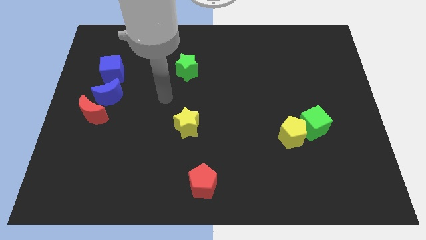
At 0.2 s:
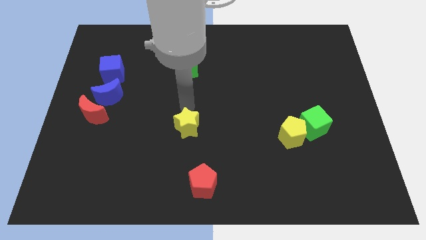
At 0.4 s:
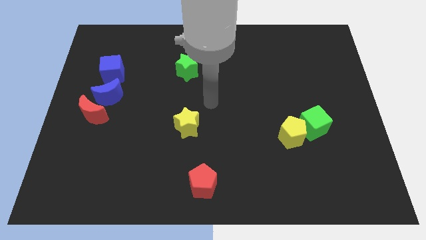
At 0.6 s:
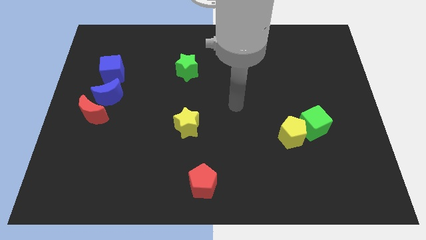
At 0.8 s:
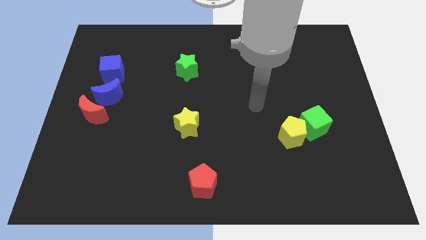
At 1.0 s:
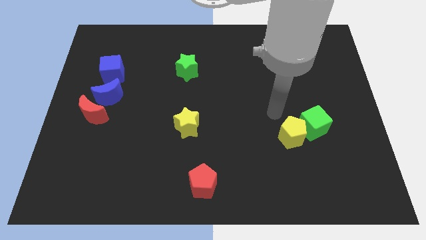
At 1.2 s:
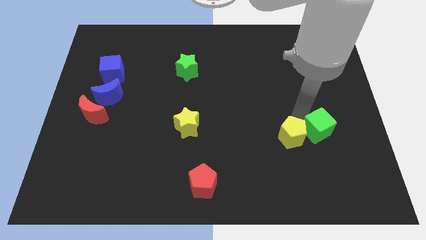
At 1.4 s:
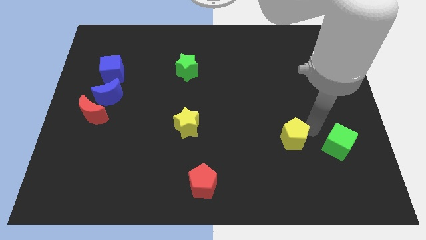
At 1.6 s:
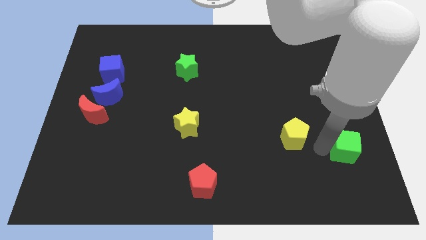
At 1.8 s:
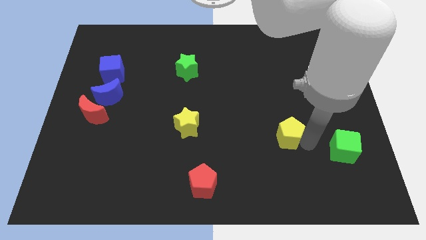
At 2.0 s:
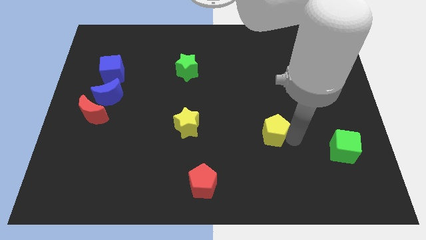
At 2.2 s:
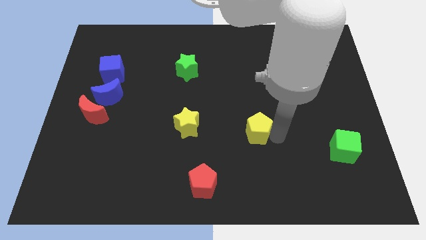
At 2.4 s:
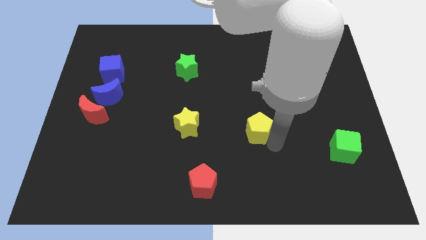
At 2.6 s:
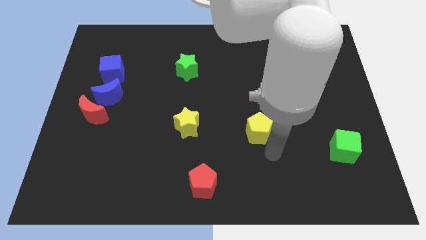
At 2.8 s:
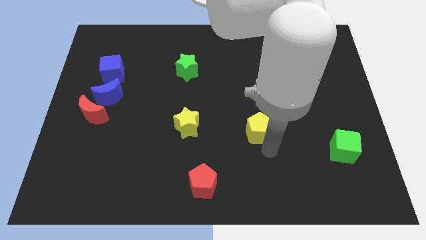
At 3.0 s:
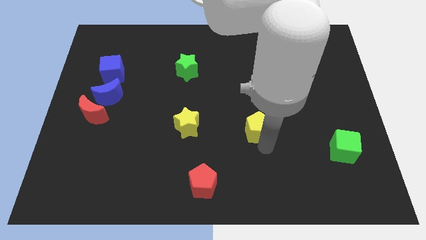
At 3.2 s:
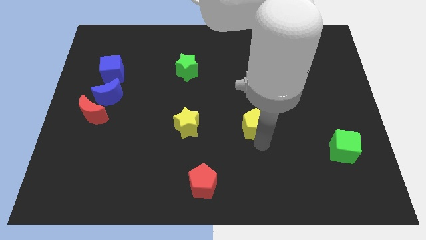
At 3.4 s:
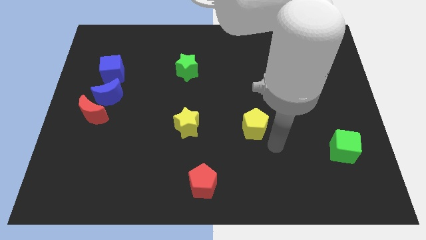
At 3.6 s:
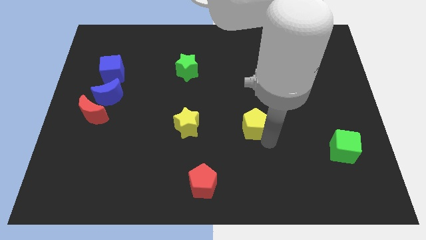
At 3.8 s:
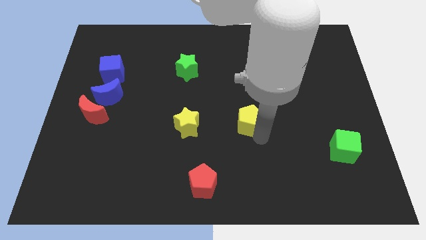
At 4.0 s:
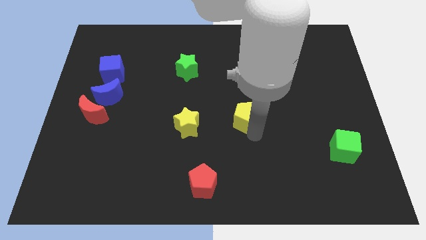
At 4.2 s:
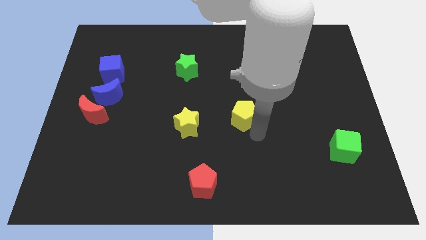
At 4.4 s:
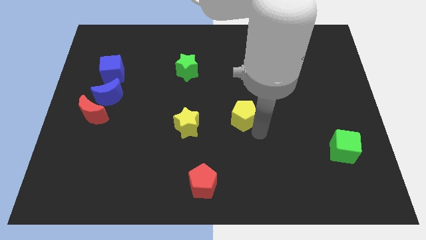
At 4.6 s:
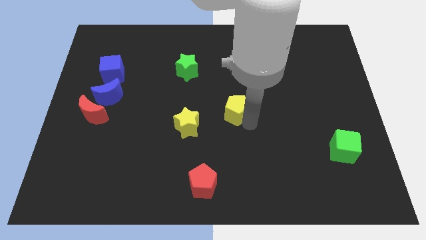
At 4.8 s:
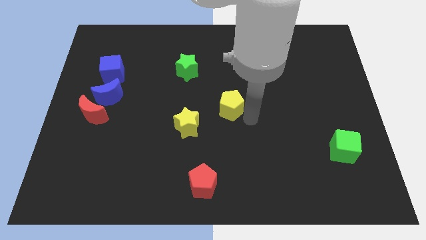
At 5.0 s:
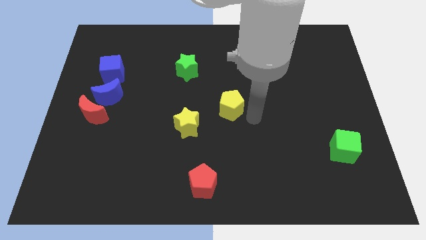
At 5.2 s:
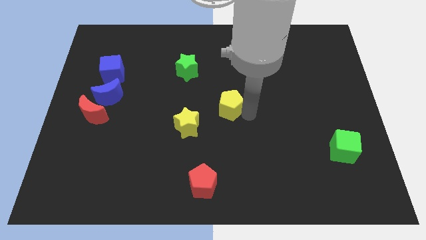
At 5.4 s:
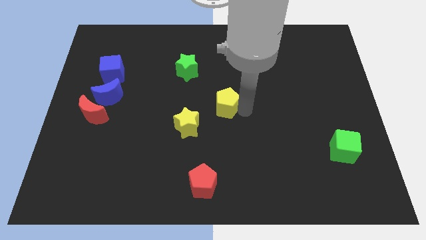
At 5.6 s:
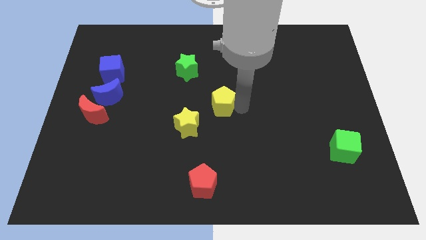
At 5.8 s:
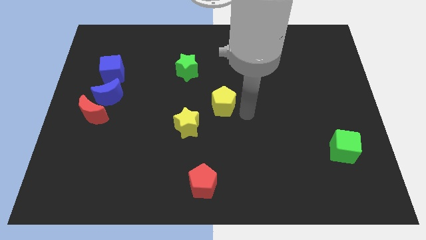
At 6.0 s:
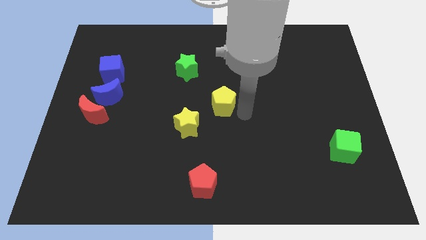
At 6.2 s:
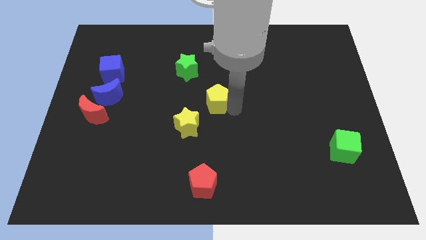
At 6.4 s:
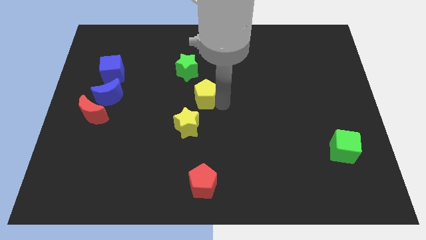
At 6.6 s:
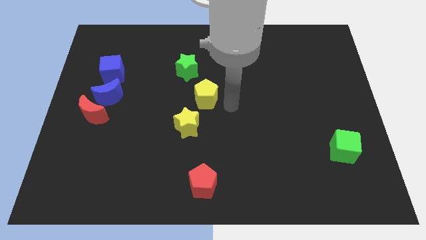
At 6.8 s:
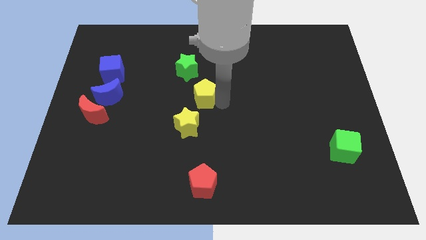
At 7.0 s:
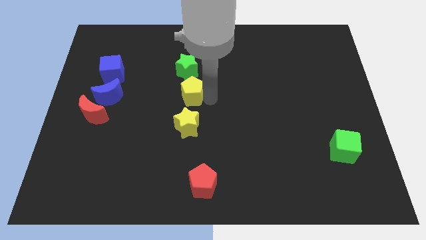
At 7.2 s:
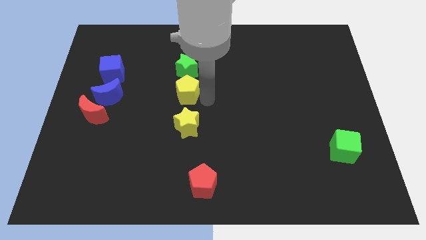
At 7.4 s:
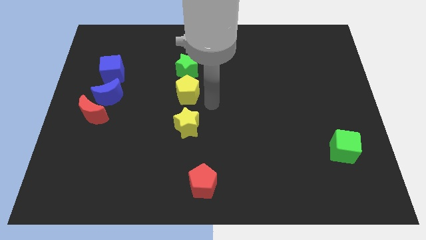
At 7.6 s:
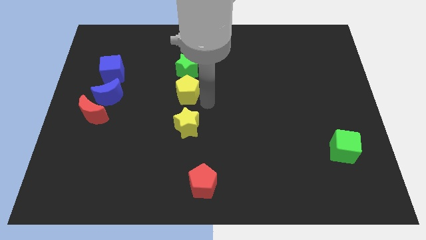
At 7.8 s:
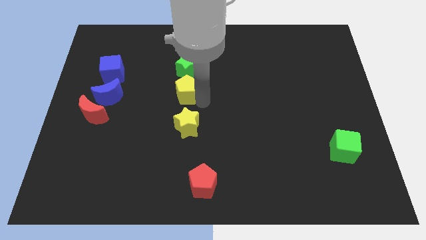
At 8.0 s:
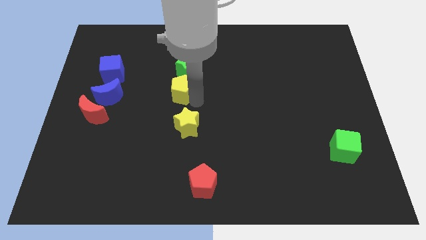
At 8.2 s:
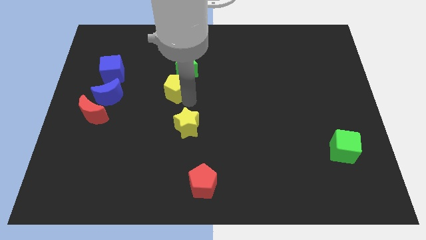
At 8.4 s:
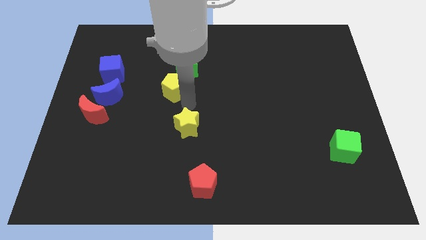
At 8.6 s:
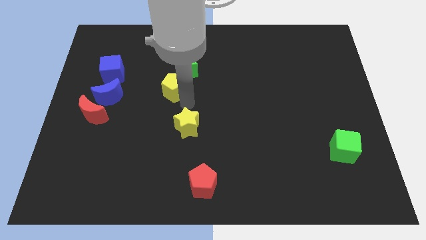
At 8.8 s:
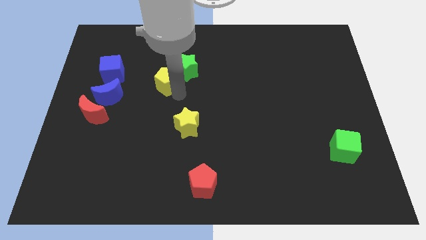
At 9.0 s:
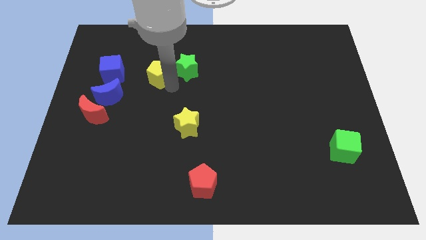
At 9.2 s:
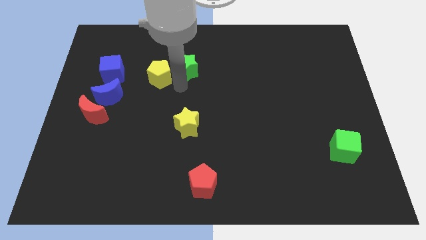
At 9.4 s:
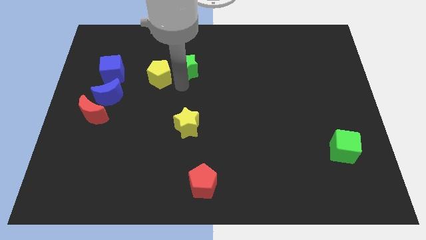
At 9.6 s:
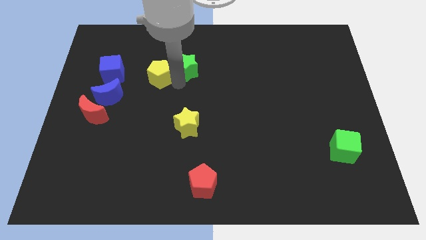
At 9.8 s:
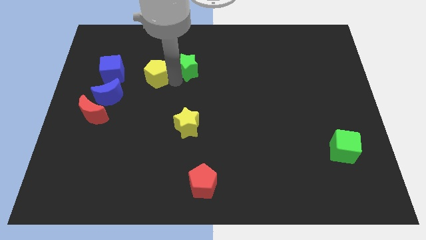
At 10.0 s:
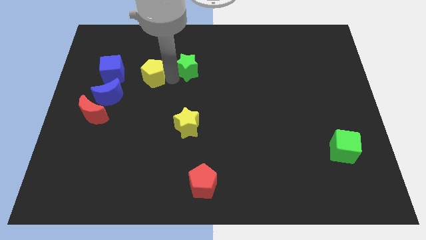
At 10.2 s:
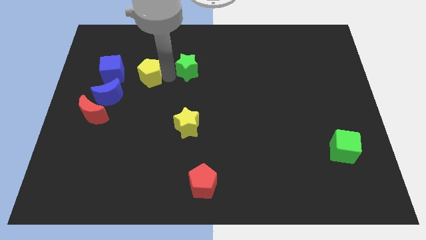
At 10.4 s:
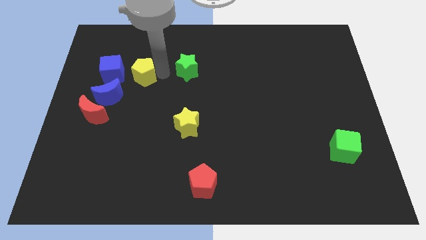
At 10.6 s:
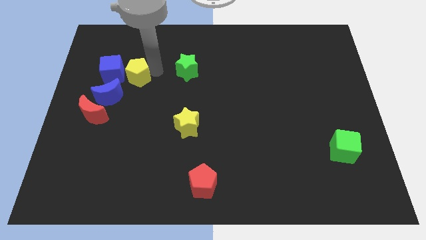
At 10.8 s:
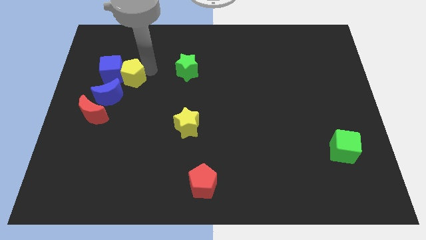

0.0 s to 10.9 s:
push the yellow pentagon to the top of the blue moon

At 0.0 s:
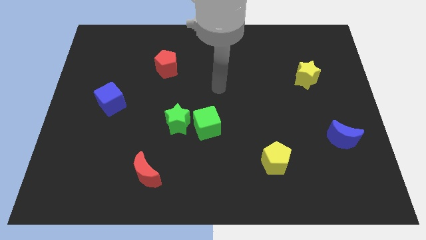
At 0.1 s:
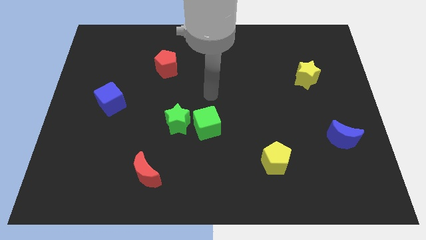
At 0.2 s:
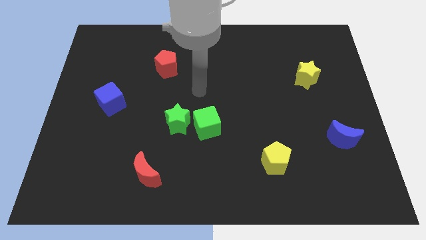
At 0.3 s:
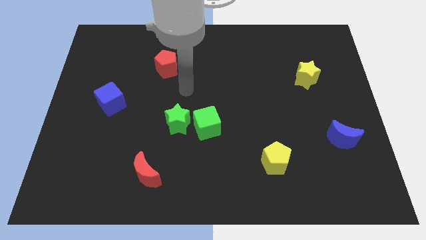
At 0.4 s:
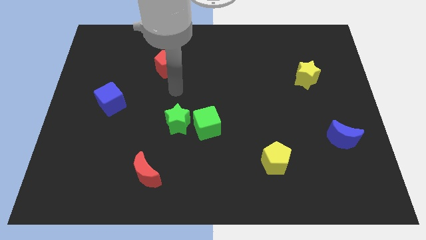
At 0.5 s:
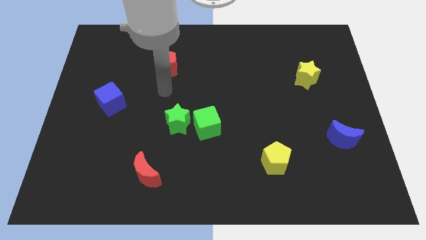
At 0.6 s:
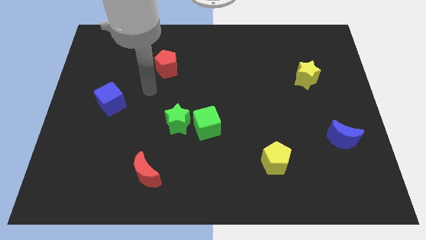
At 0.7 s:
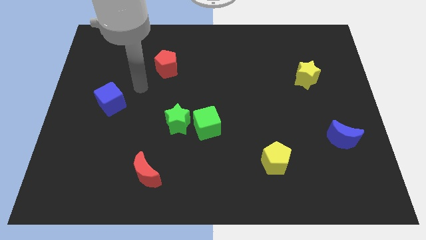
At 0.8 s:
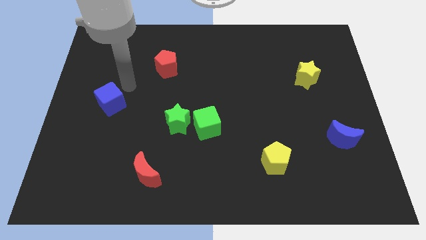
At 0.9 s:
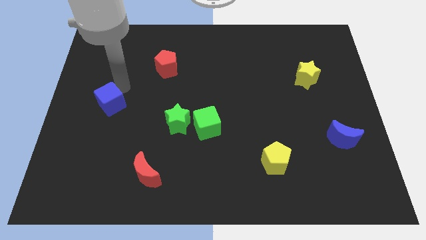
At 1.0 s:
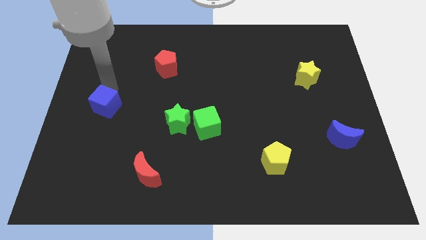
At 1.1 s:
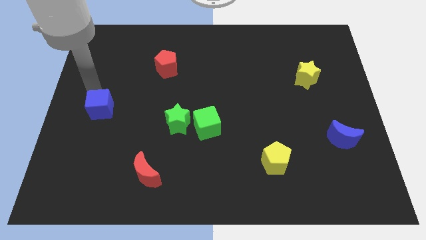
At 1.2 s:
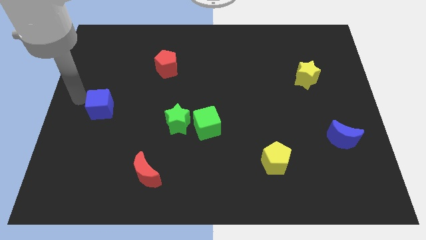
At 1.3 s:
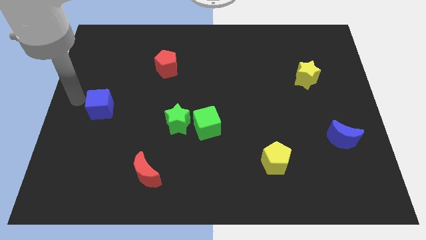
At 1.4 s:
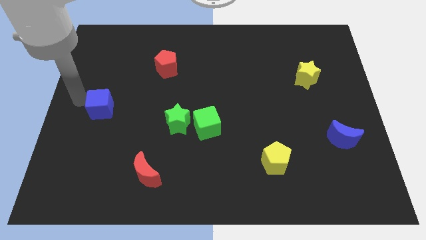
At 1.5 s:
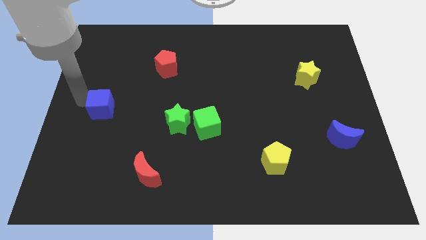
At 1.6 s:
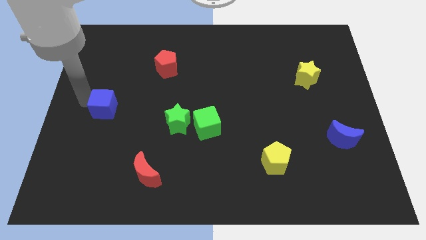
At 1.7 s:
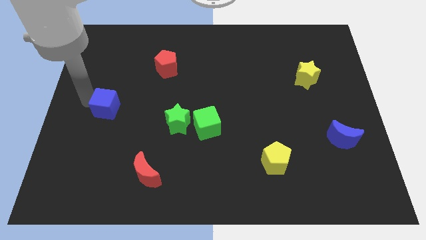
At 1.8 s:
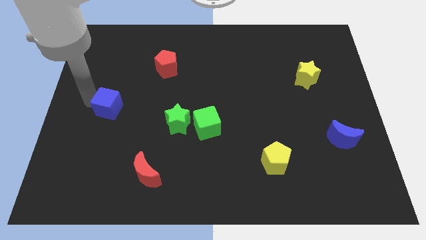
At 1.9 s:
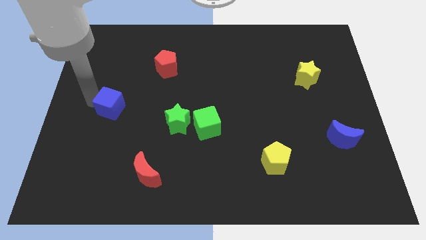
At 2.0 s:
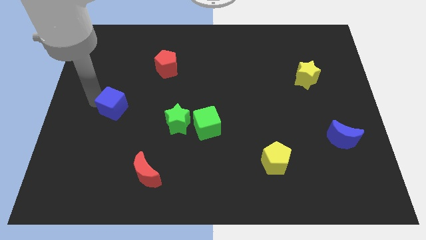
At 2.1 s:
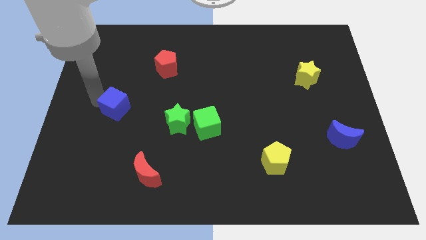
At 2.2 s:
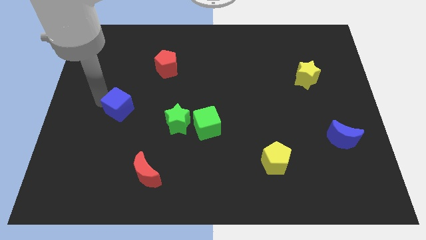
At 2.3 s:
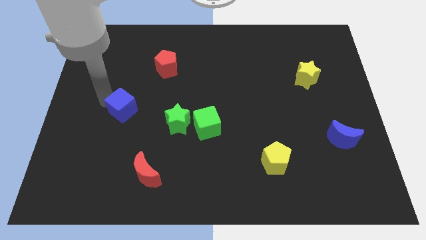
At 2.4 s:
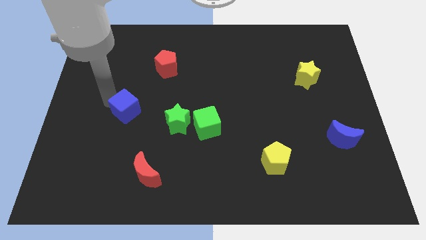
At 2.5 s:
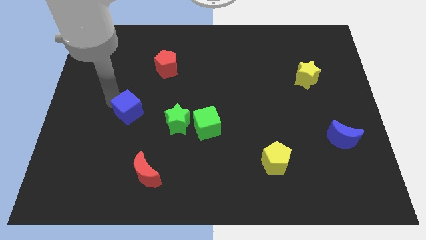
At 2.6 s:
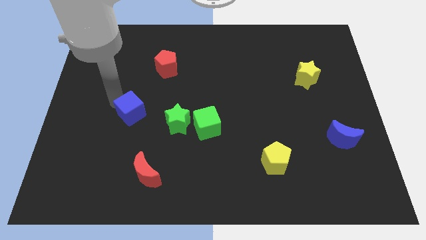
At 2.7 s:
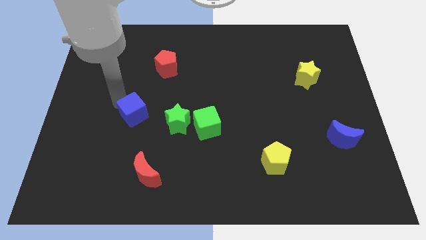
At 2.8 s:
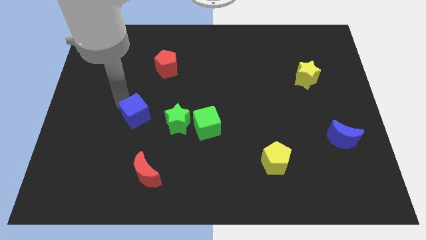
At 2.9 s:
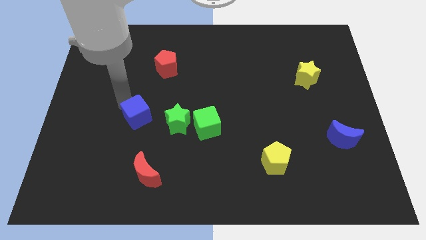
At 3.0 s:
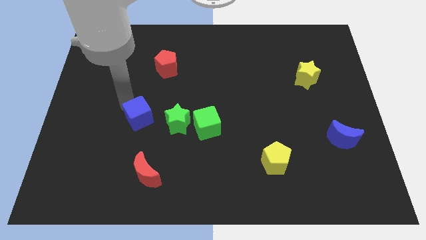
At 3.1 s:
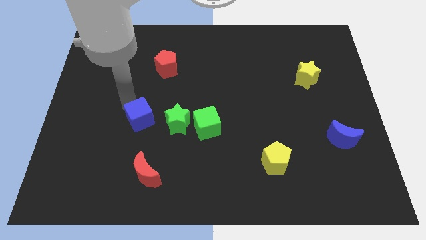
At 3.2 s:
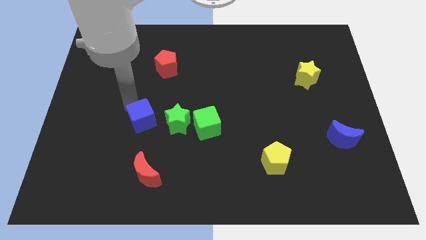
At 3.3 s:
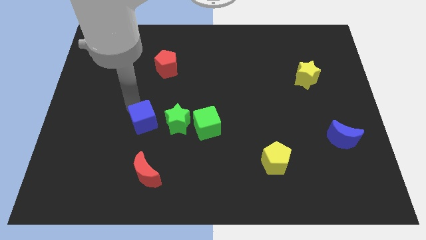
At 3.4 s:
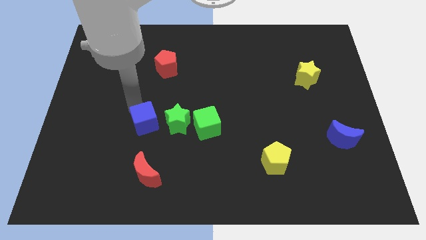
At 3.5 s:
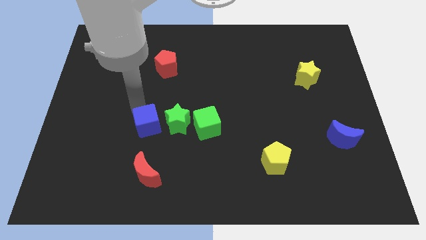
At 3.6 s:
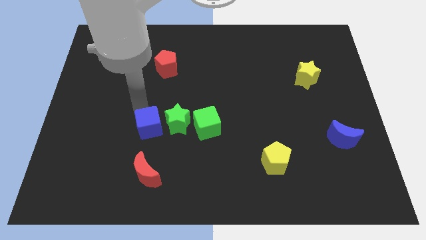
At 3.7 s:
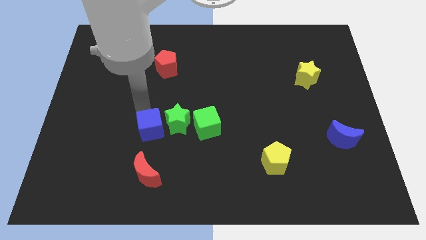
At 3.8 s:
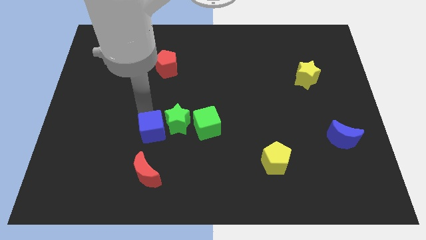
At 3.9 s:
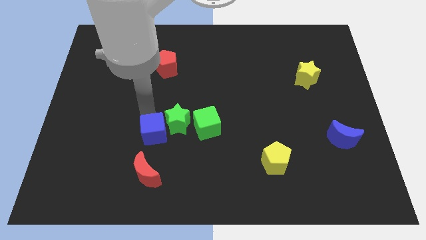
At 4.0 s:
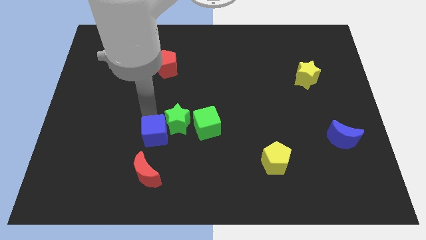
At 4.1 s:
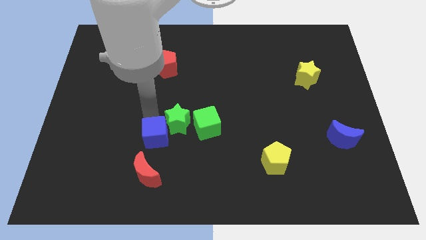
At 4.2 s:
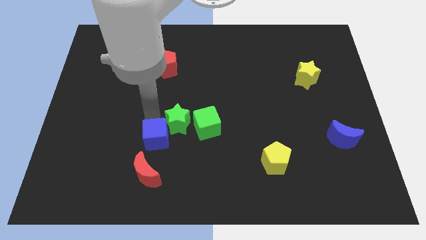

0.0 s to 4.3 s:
slide the blue cube below the green star
